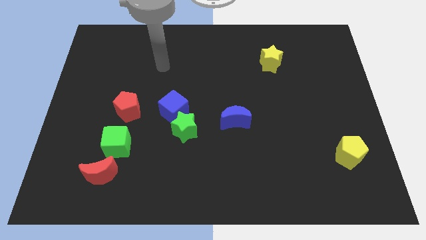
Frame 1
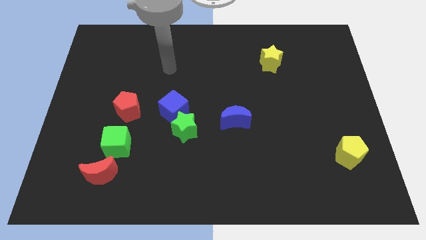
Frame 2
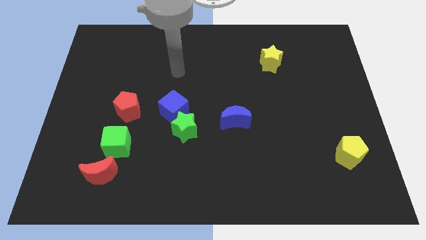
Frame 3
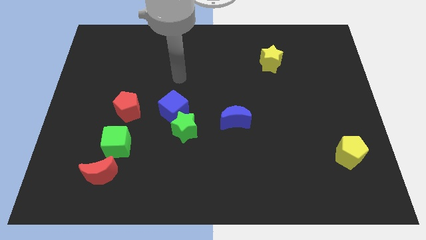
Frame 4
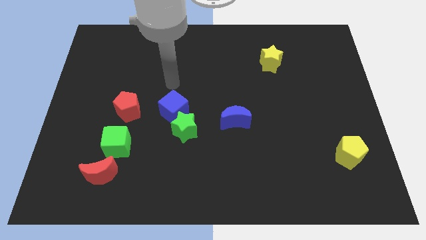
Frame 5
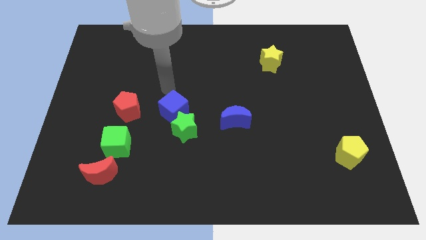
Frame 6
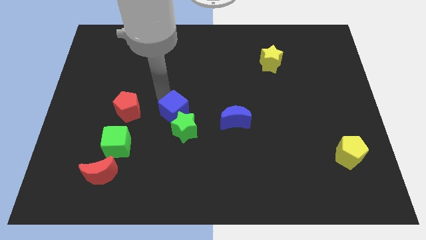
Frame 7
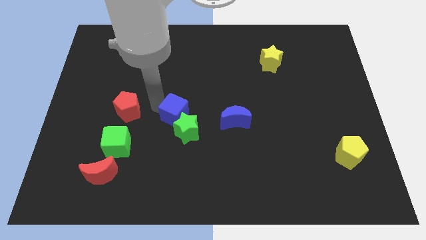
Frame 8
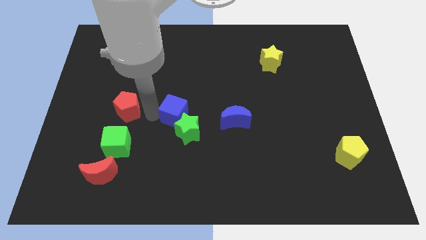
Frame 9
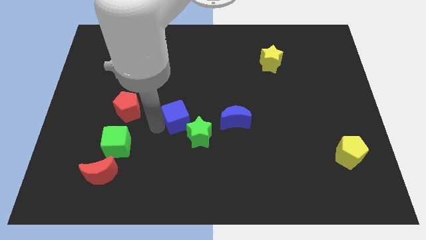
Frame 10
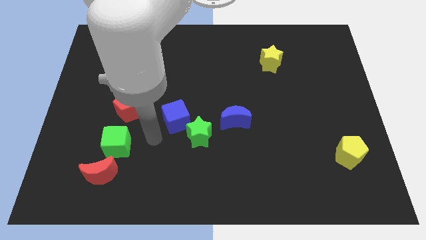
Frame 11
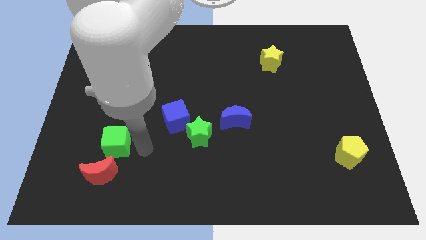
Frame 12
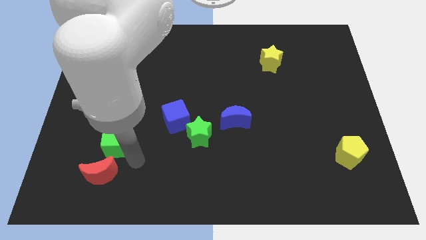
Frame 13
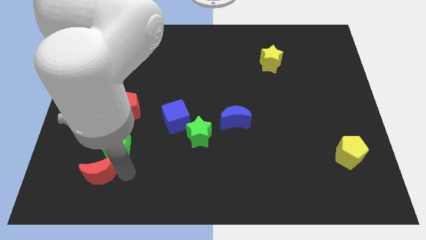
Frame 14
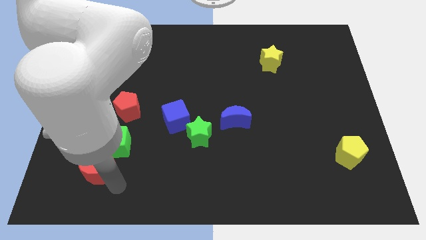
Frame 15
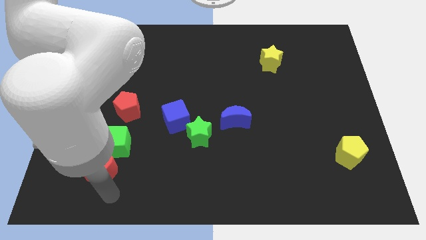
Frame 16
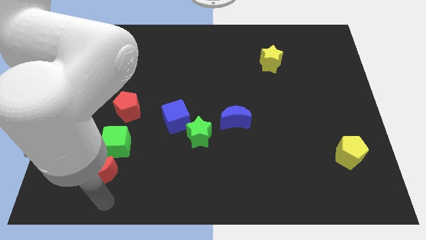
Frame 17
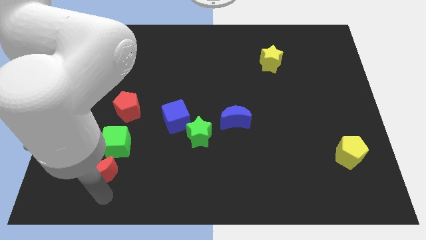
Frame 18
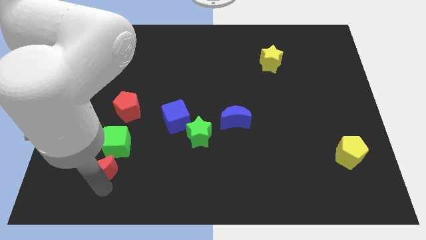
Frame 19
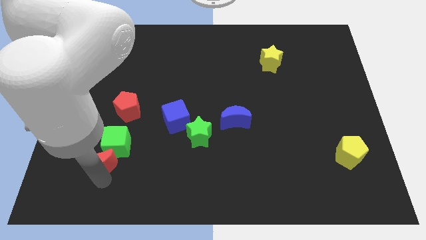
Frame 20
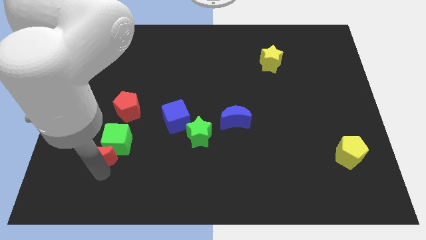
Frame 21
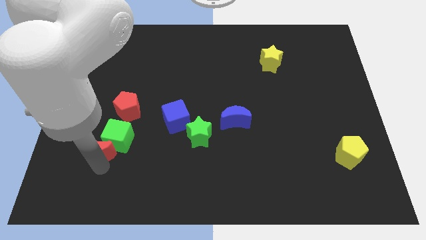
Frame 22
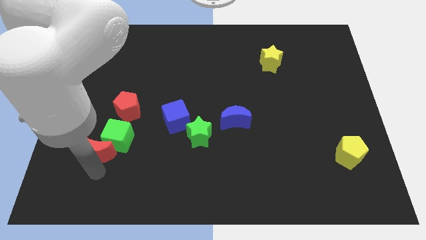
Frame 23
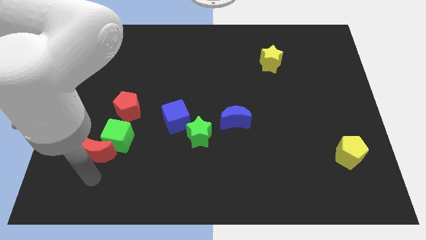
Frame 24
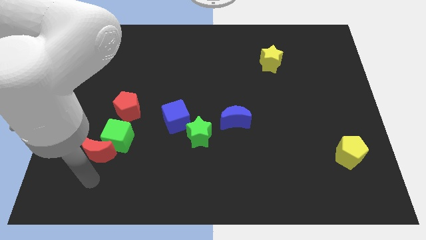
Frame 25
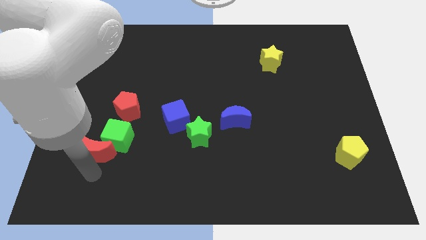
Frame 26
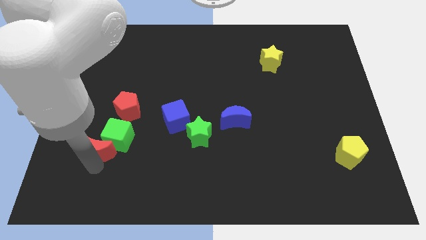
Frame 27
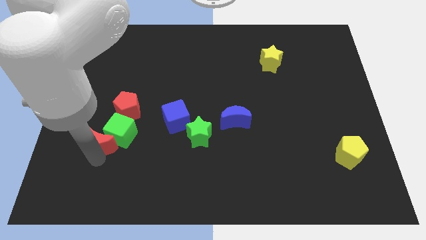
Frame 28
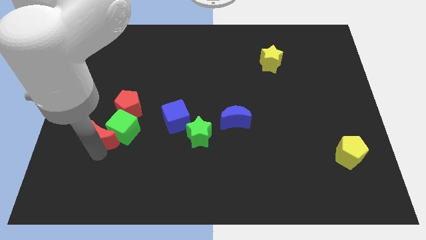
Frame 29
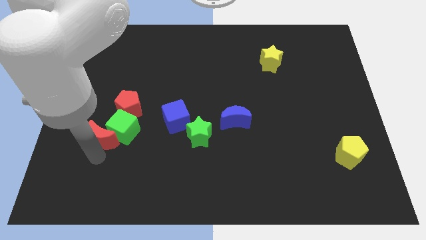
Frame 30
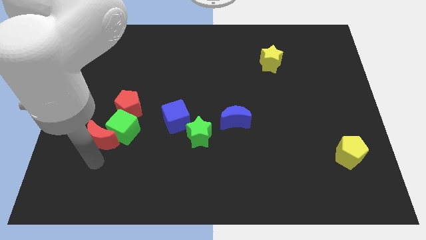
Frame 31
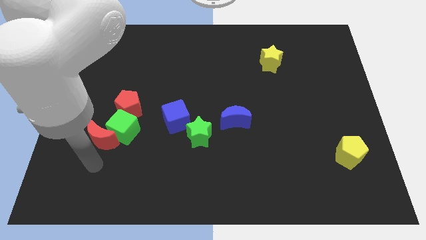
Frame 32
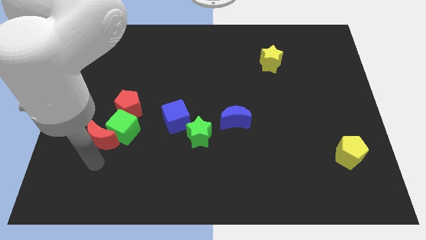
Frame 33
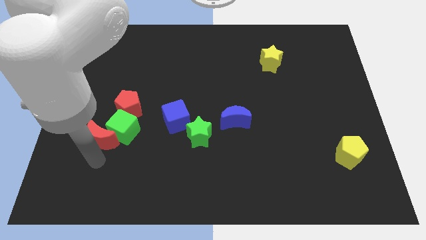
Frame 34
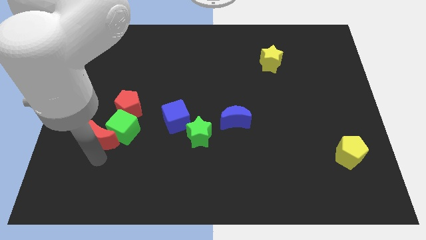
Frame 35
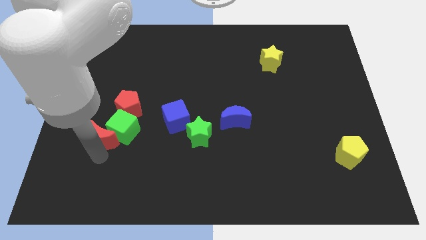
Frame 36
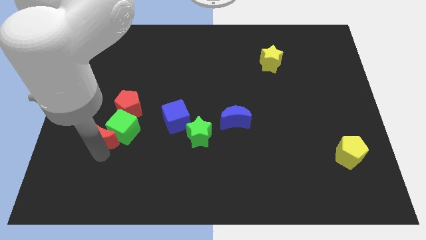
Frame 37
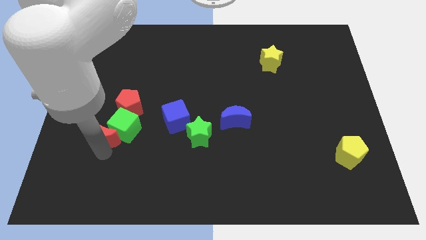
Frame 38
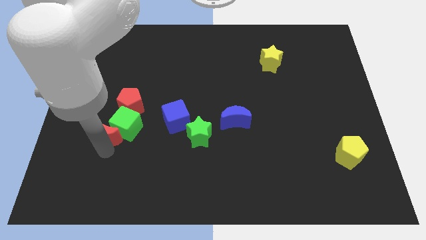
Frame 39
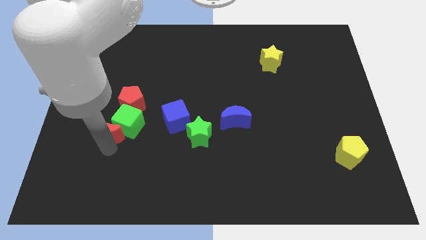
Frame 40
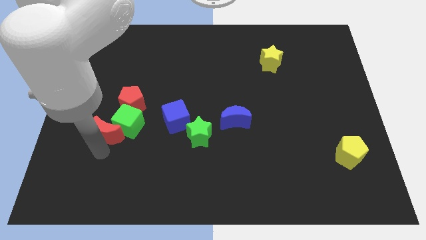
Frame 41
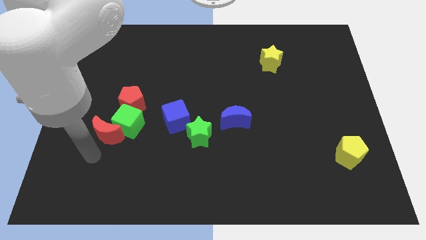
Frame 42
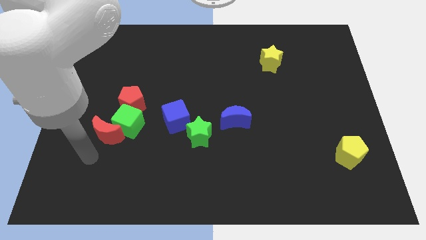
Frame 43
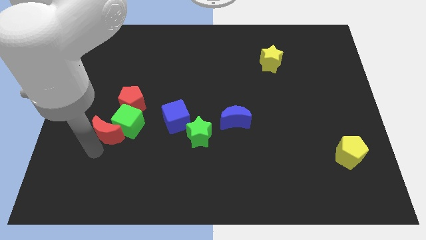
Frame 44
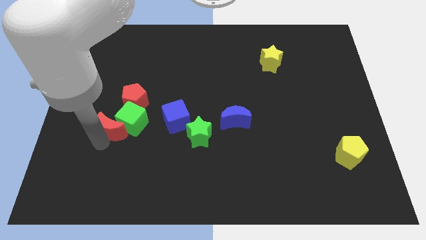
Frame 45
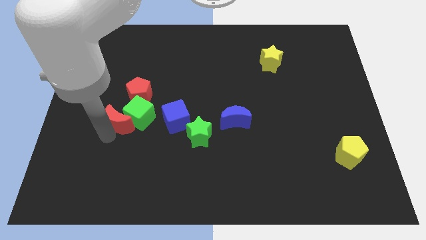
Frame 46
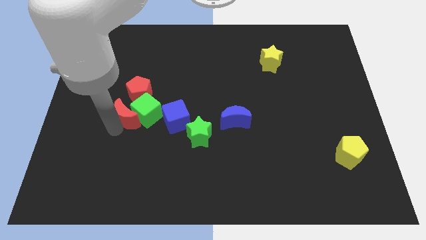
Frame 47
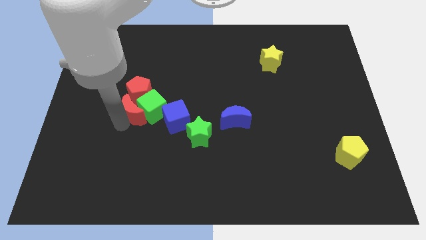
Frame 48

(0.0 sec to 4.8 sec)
slide the red moon next to the red pentagon

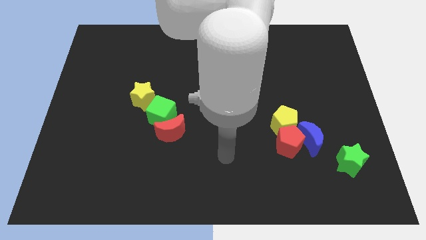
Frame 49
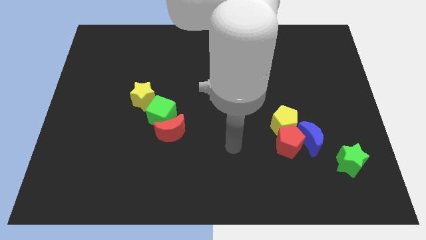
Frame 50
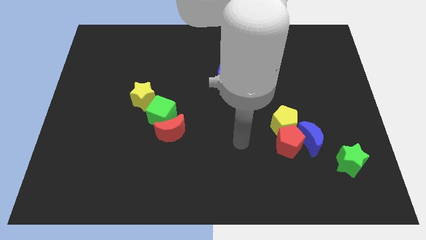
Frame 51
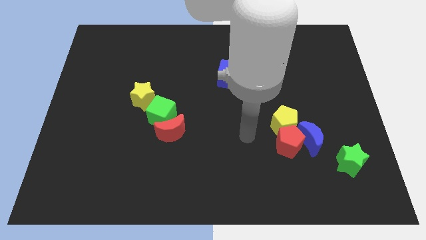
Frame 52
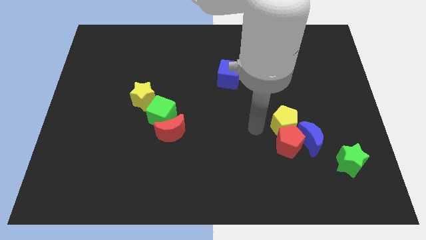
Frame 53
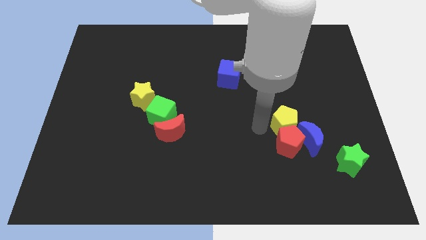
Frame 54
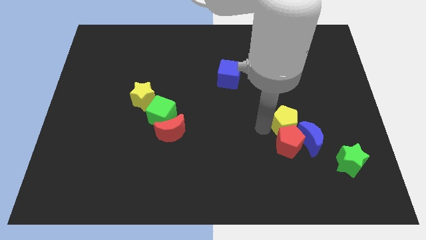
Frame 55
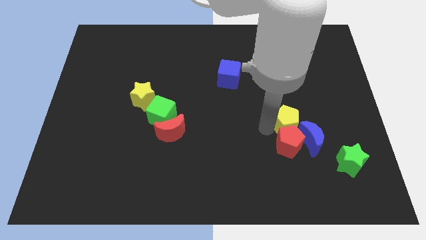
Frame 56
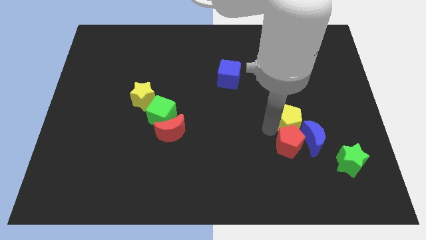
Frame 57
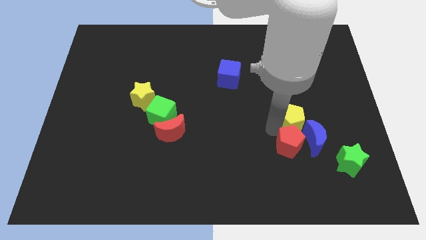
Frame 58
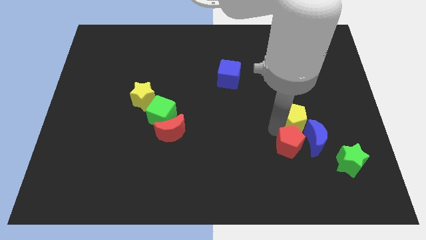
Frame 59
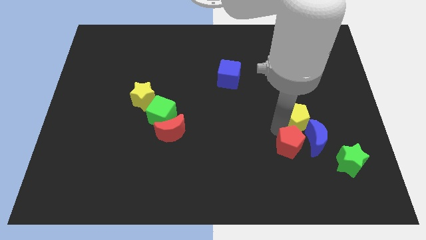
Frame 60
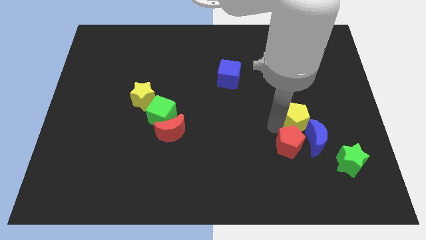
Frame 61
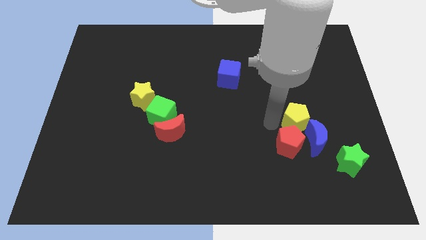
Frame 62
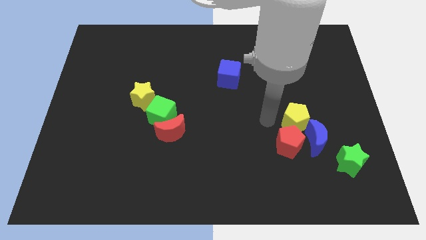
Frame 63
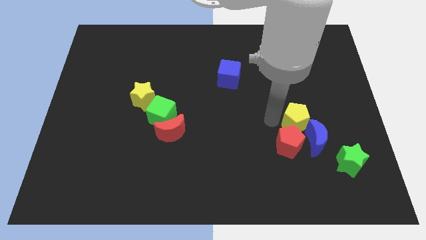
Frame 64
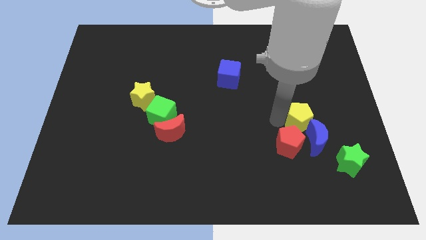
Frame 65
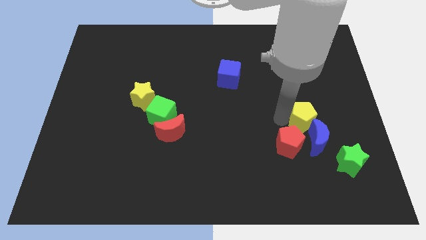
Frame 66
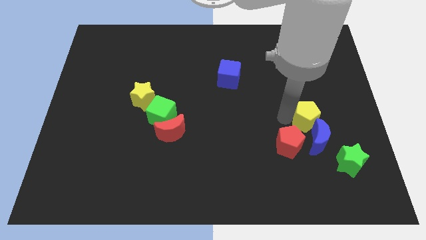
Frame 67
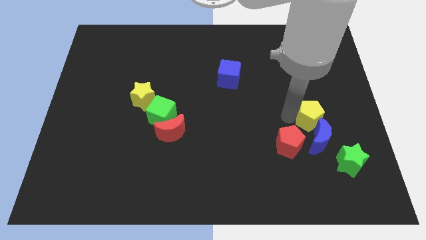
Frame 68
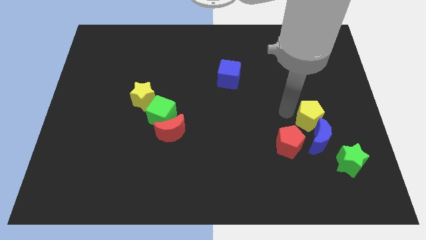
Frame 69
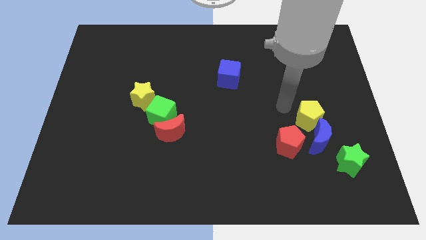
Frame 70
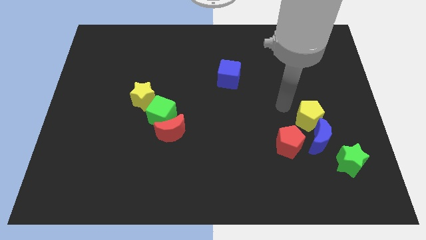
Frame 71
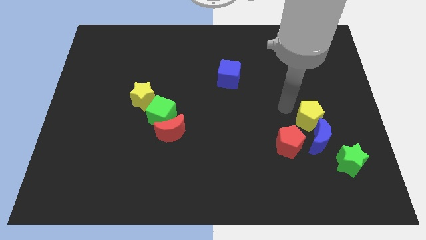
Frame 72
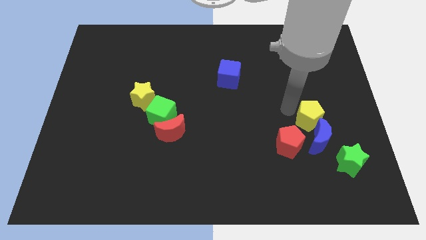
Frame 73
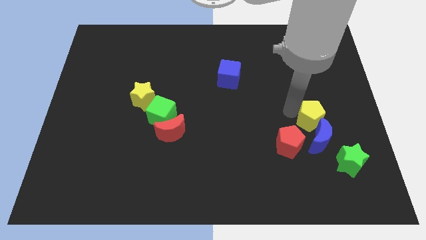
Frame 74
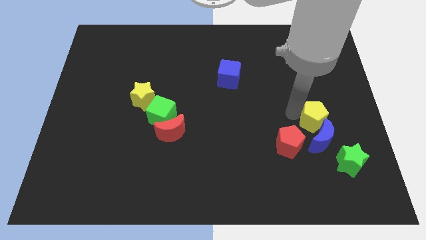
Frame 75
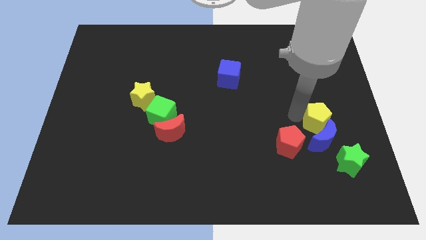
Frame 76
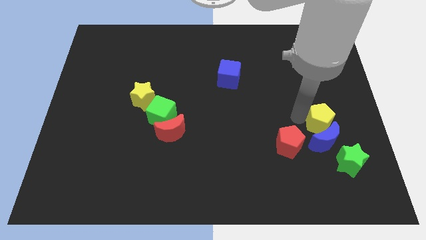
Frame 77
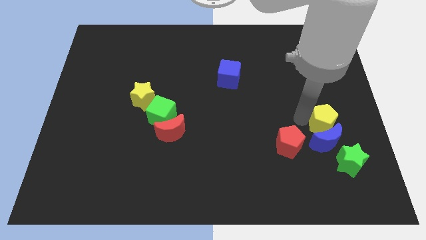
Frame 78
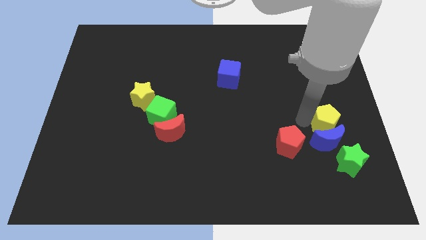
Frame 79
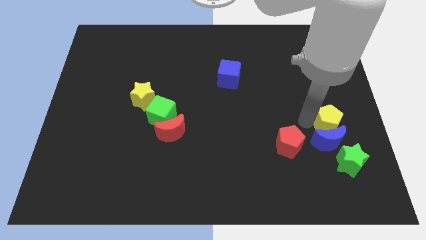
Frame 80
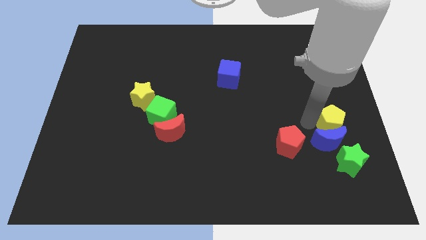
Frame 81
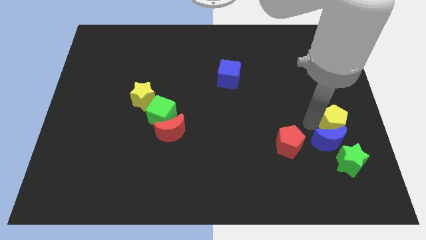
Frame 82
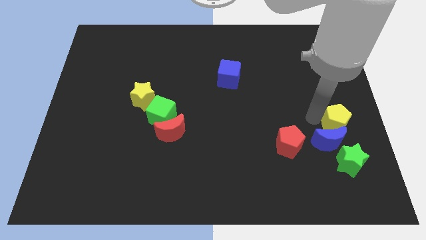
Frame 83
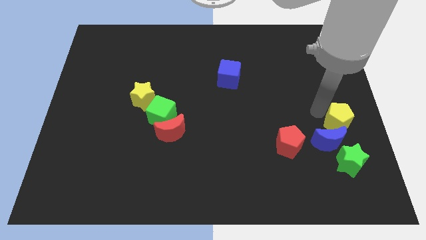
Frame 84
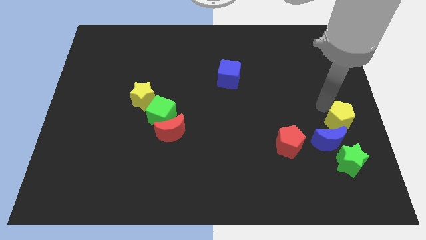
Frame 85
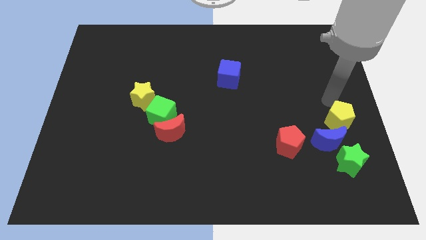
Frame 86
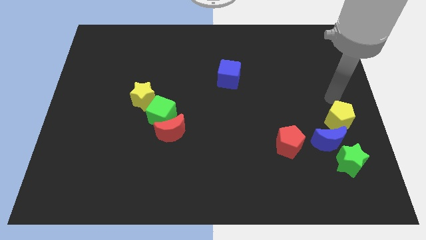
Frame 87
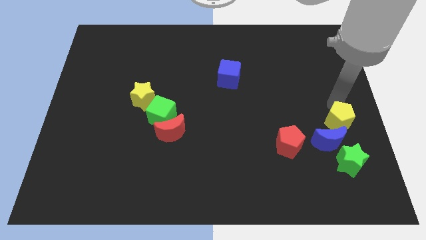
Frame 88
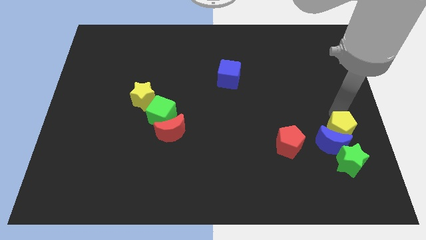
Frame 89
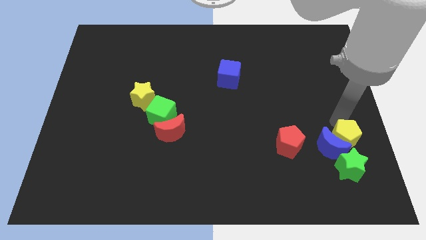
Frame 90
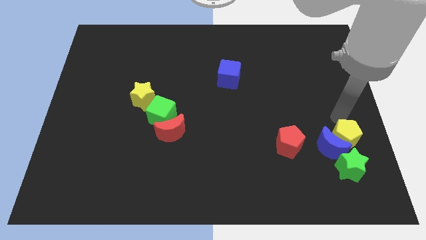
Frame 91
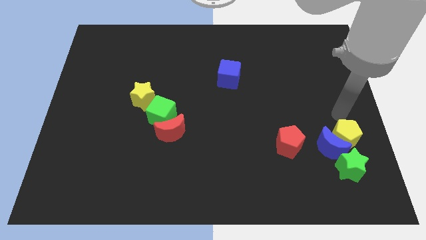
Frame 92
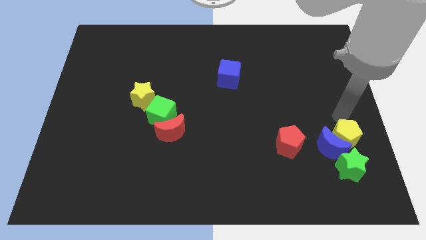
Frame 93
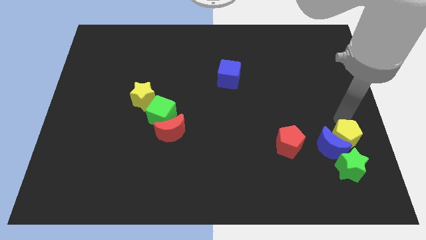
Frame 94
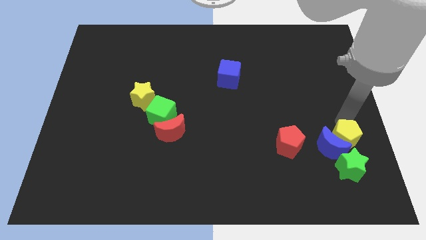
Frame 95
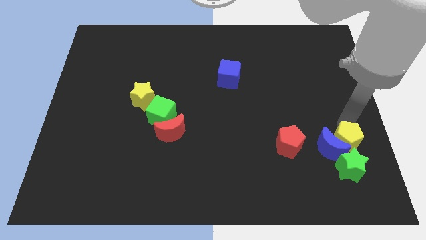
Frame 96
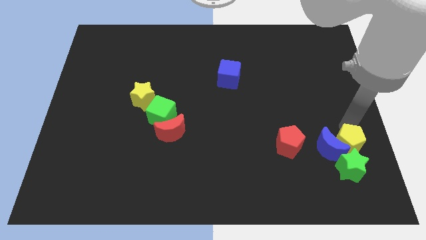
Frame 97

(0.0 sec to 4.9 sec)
push the yellow pentagon towards the green star
